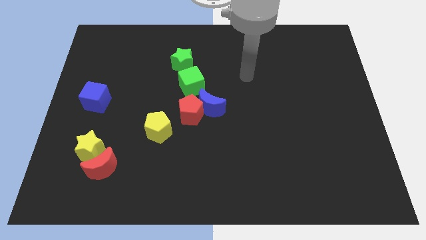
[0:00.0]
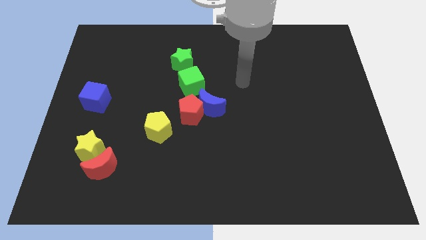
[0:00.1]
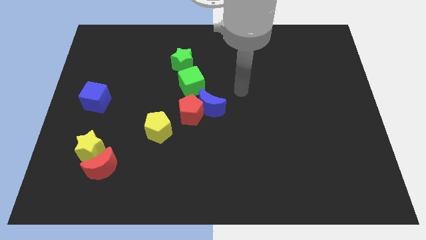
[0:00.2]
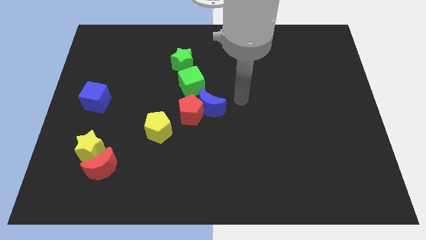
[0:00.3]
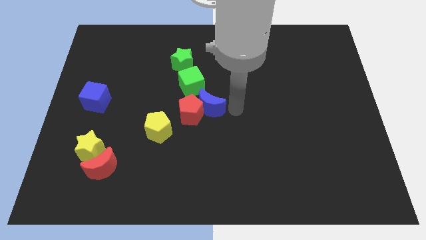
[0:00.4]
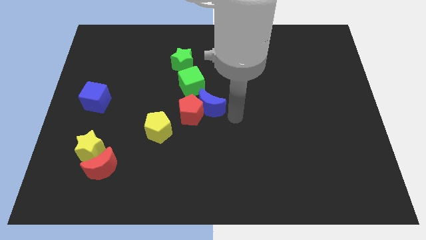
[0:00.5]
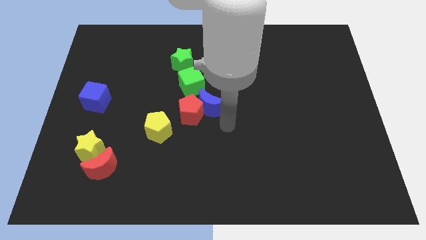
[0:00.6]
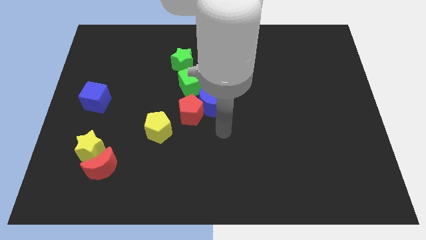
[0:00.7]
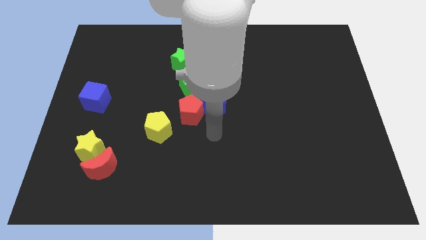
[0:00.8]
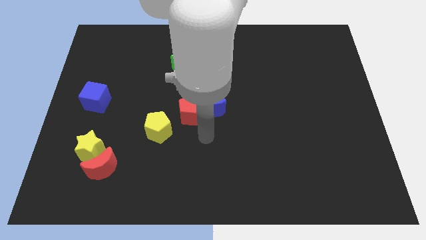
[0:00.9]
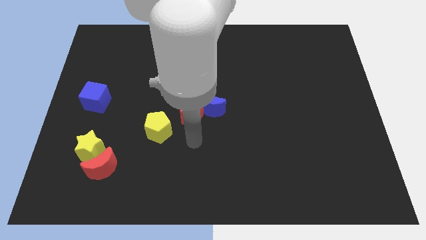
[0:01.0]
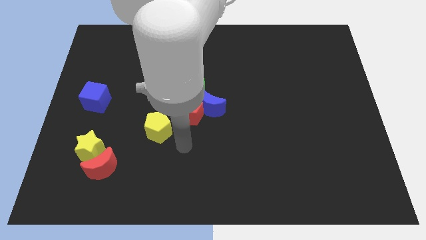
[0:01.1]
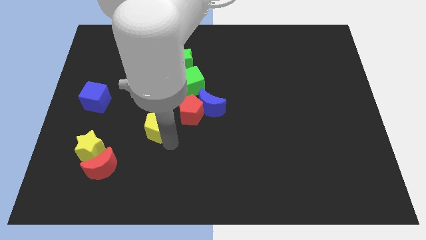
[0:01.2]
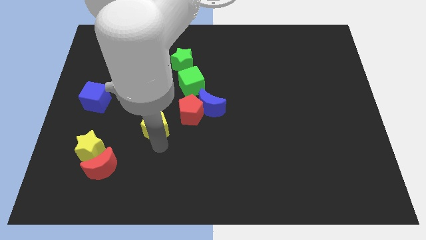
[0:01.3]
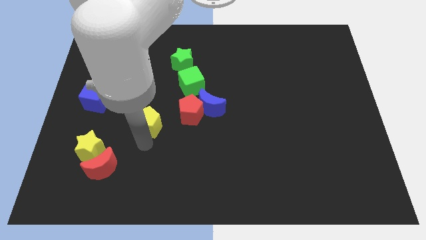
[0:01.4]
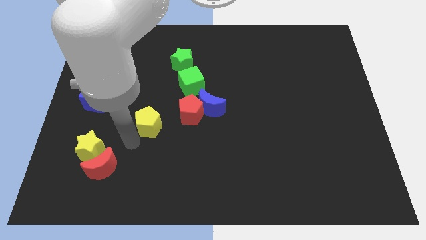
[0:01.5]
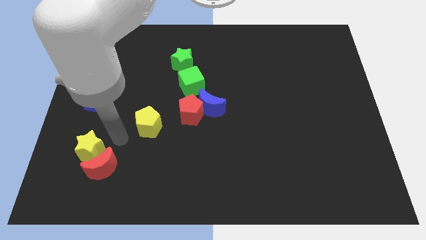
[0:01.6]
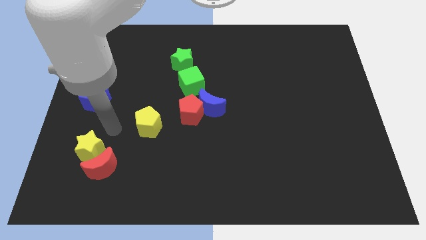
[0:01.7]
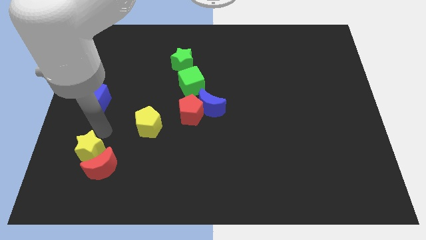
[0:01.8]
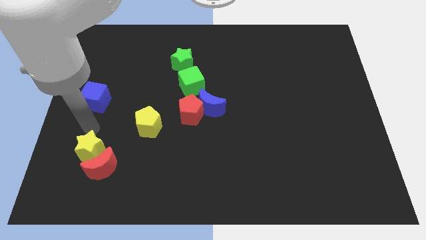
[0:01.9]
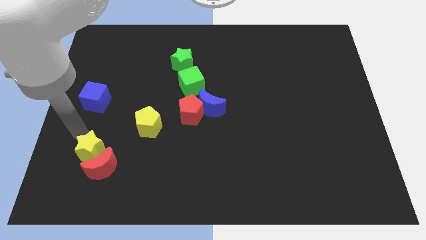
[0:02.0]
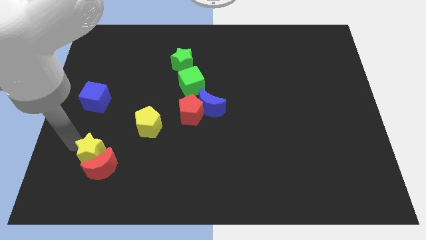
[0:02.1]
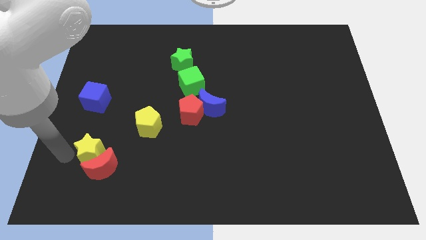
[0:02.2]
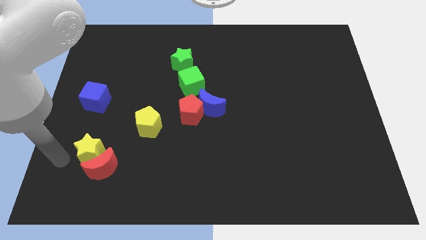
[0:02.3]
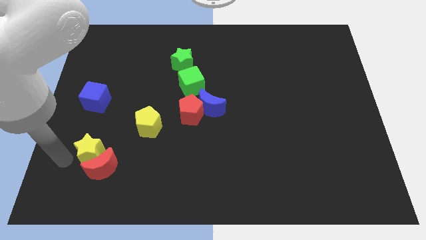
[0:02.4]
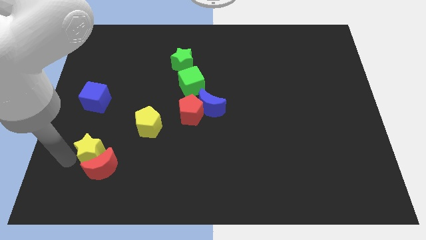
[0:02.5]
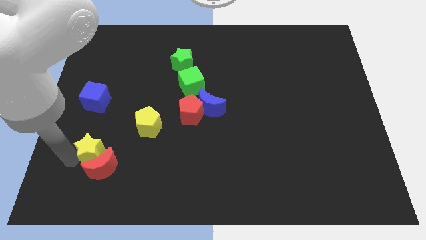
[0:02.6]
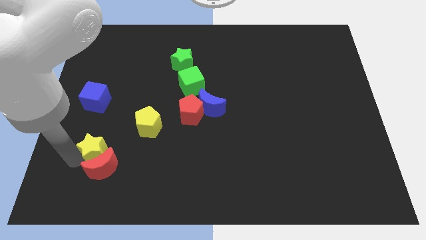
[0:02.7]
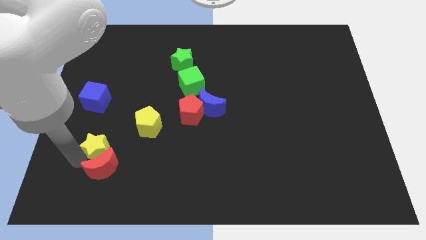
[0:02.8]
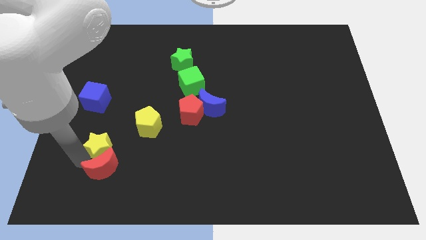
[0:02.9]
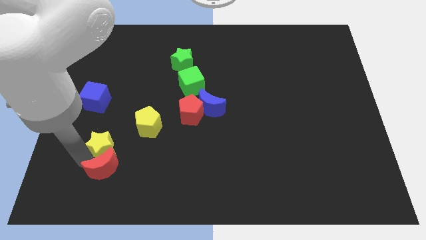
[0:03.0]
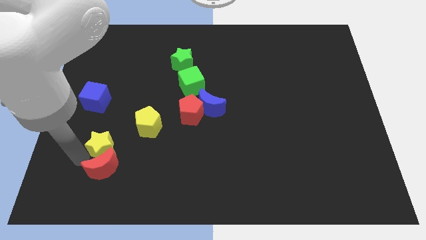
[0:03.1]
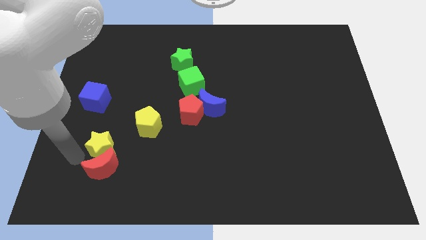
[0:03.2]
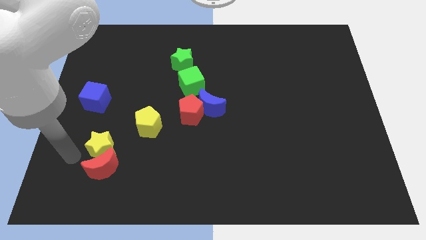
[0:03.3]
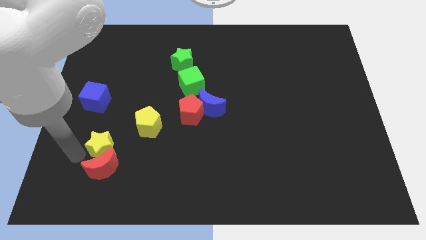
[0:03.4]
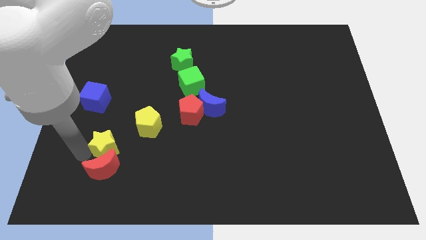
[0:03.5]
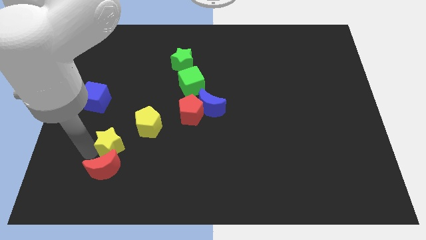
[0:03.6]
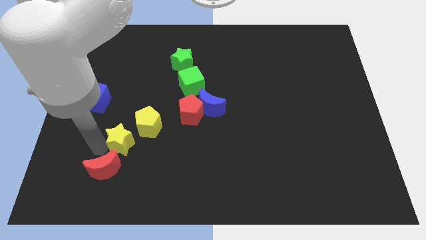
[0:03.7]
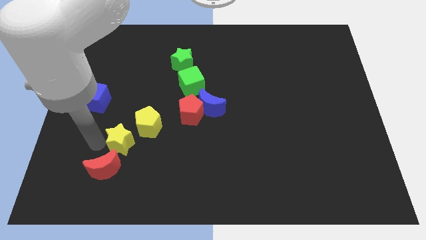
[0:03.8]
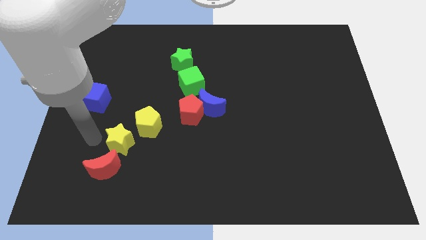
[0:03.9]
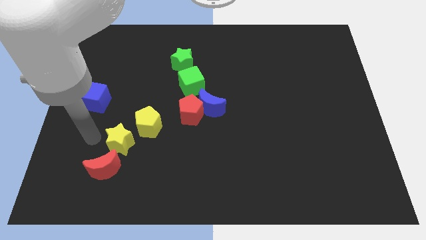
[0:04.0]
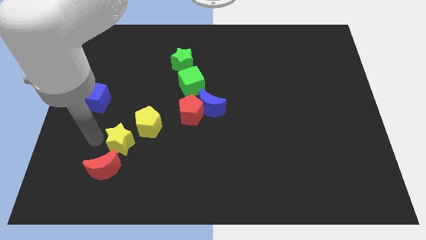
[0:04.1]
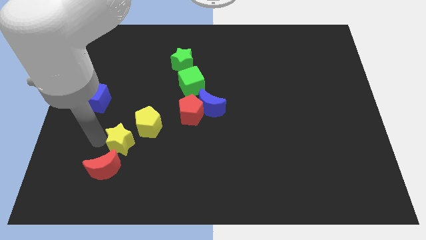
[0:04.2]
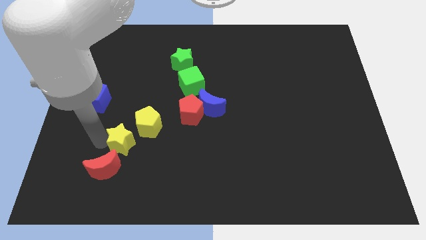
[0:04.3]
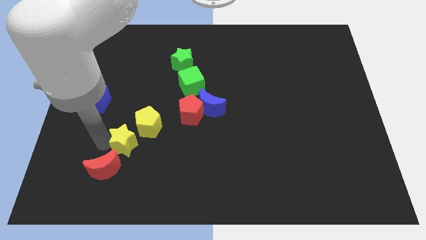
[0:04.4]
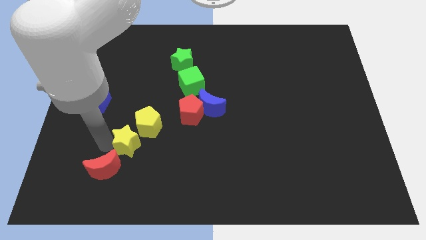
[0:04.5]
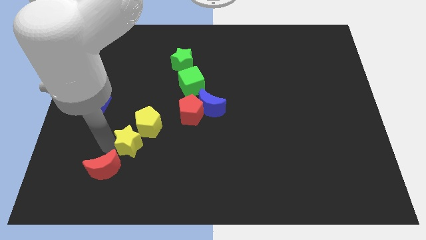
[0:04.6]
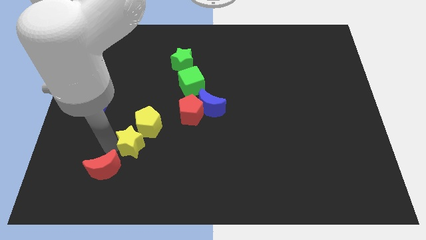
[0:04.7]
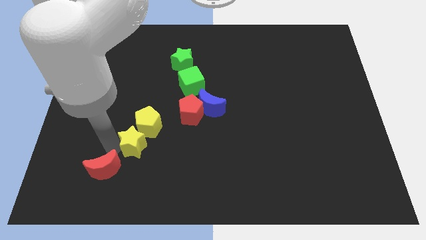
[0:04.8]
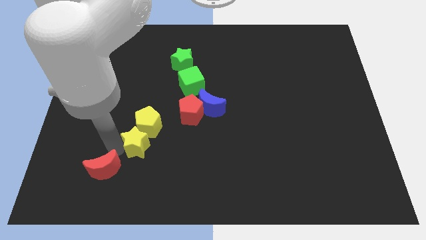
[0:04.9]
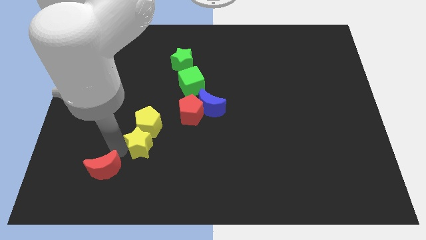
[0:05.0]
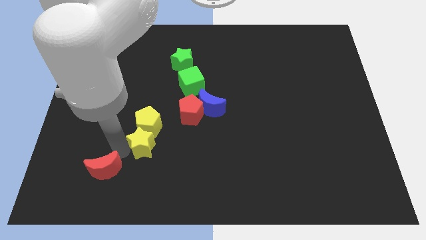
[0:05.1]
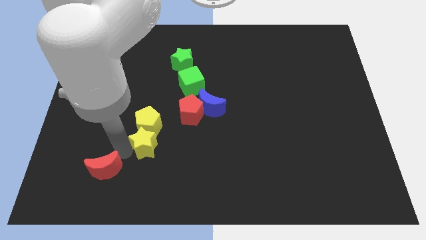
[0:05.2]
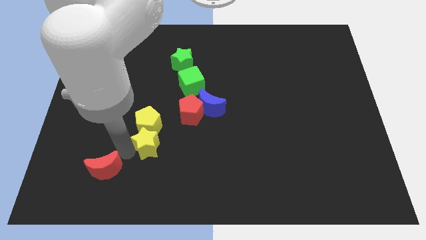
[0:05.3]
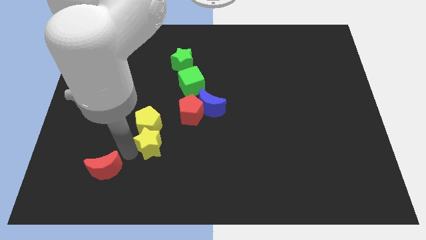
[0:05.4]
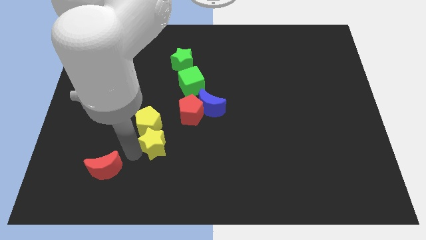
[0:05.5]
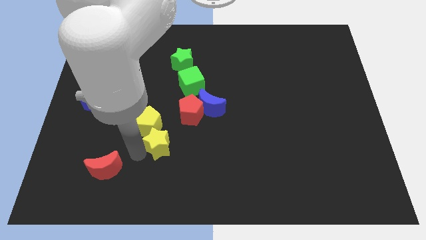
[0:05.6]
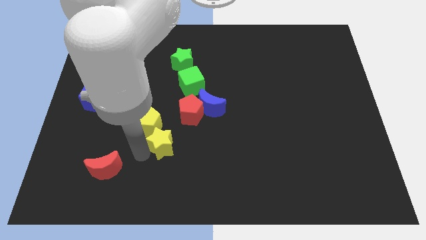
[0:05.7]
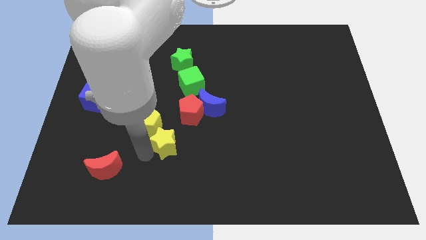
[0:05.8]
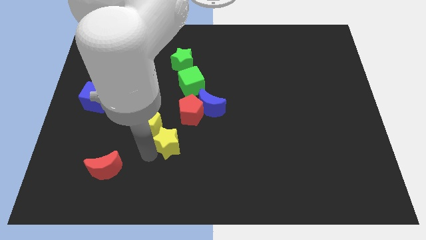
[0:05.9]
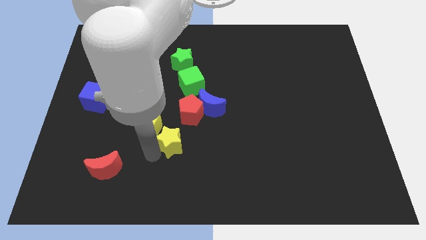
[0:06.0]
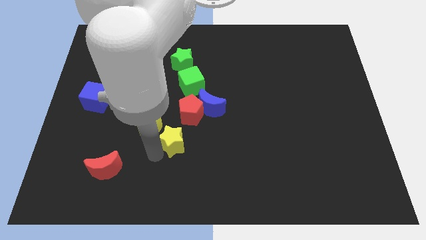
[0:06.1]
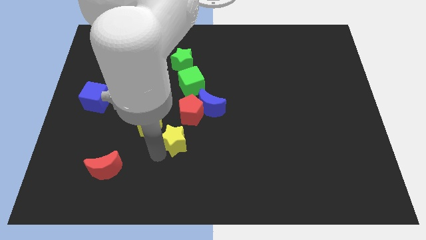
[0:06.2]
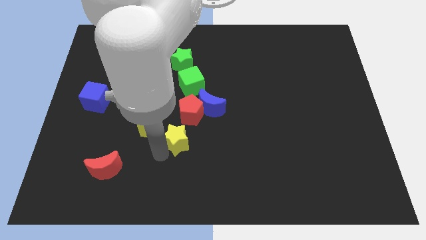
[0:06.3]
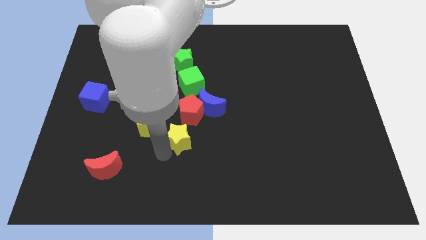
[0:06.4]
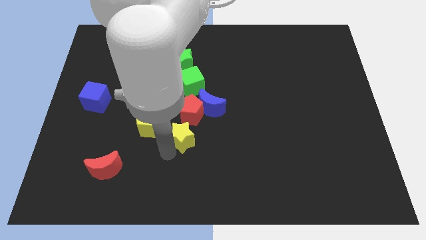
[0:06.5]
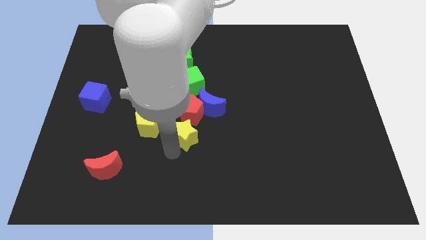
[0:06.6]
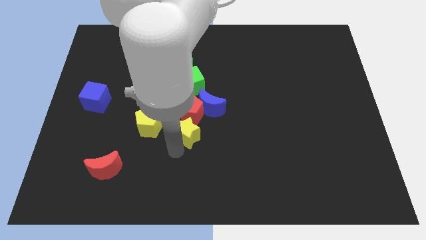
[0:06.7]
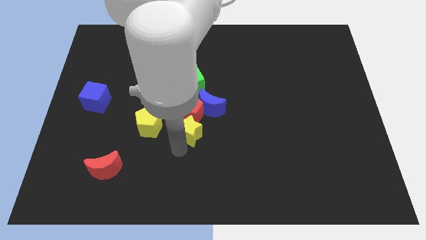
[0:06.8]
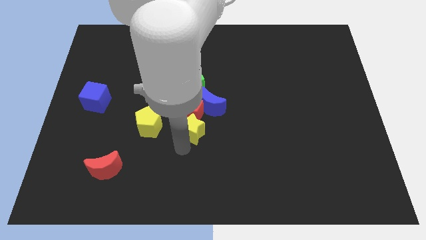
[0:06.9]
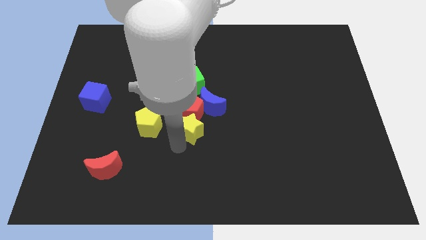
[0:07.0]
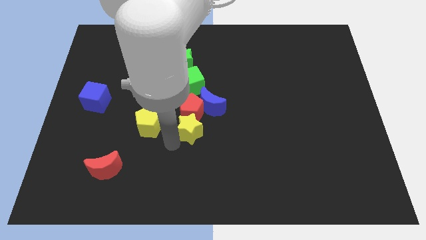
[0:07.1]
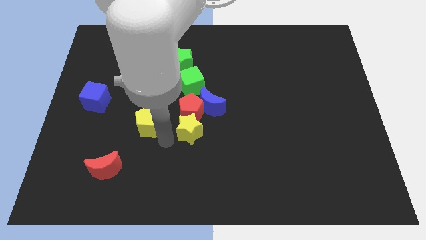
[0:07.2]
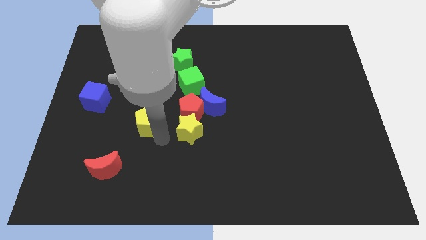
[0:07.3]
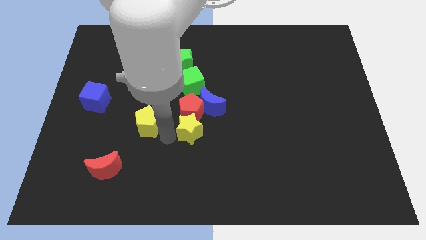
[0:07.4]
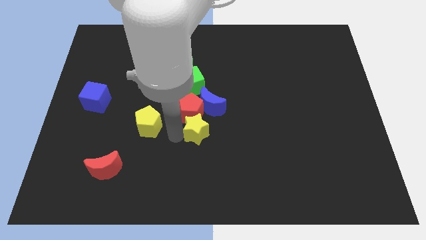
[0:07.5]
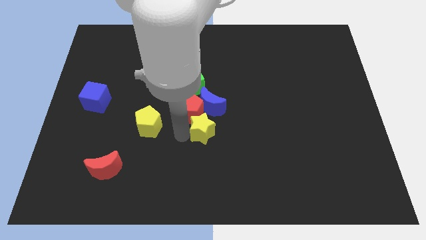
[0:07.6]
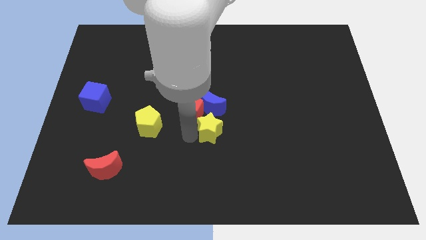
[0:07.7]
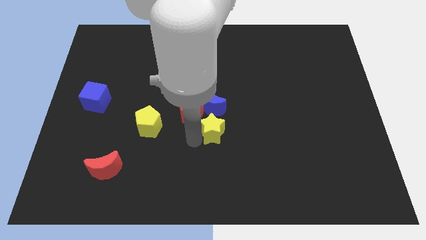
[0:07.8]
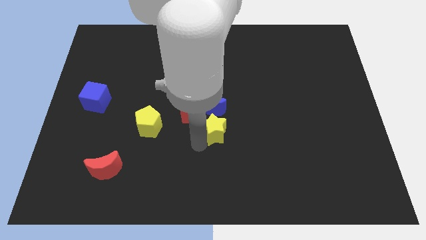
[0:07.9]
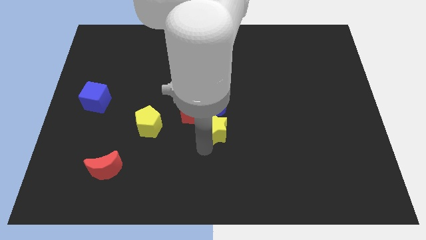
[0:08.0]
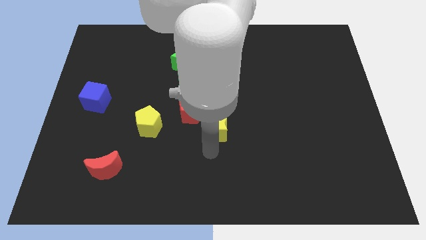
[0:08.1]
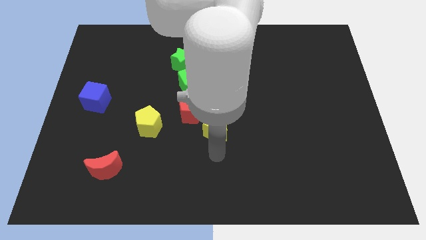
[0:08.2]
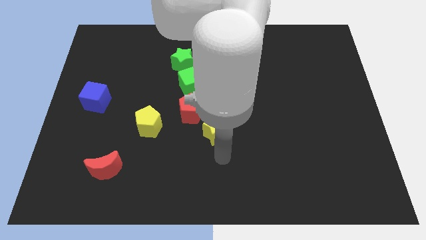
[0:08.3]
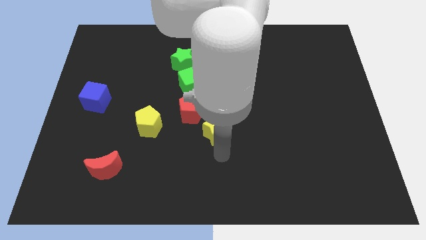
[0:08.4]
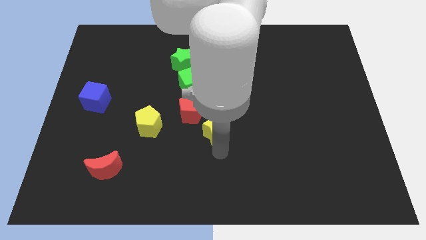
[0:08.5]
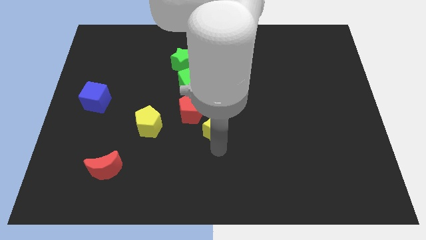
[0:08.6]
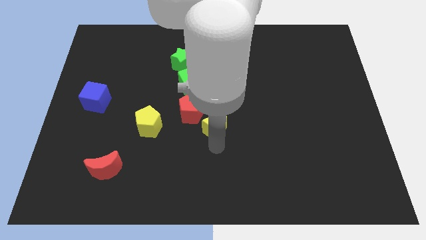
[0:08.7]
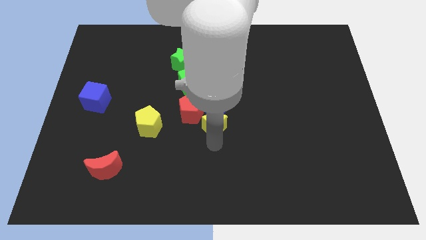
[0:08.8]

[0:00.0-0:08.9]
push the yellow star to the blue moon
